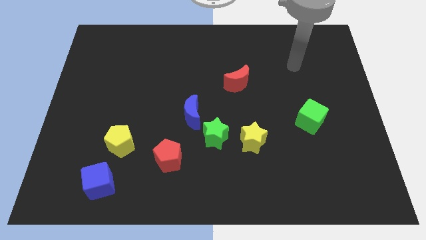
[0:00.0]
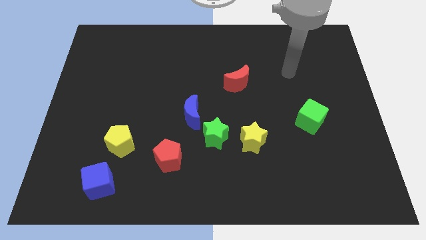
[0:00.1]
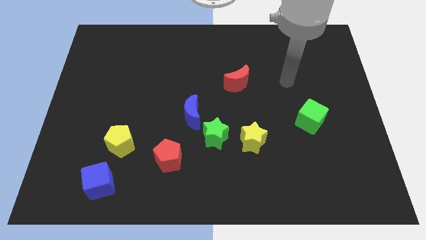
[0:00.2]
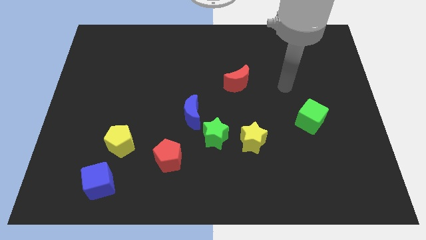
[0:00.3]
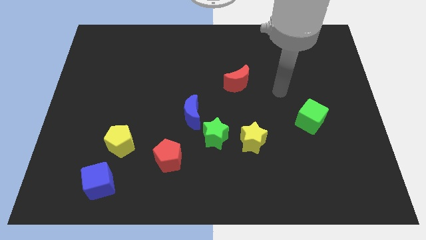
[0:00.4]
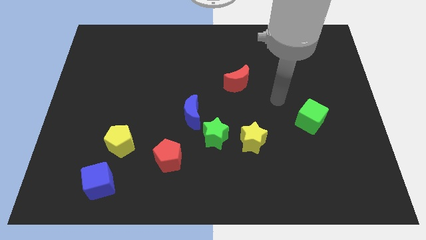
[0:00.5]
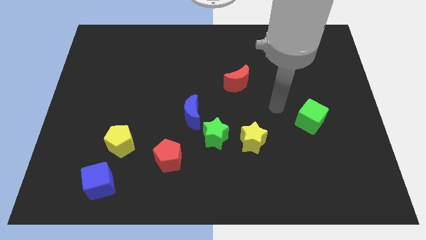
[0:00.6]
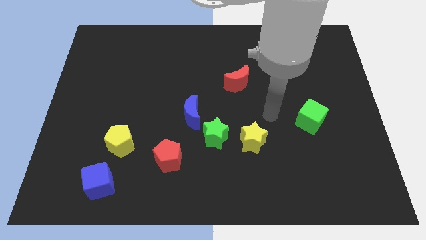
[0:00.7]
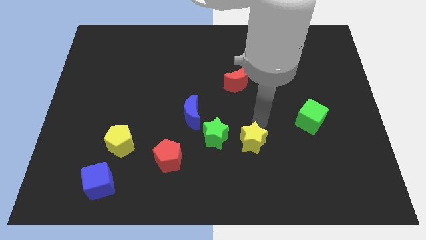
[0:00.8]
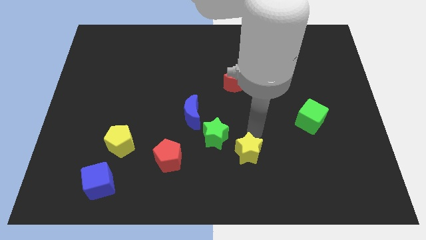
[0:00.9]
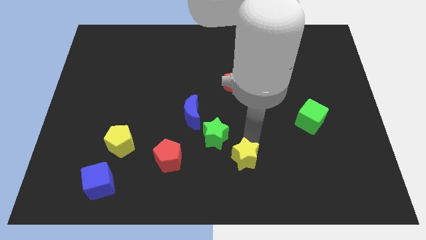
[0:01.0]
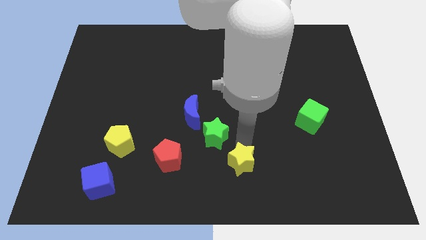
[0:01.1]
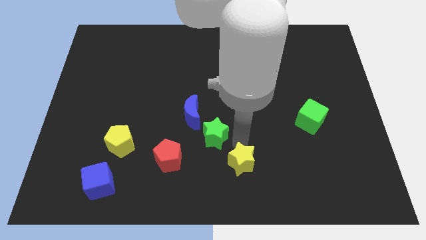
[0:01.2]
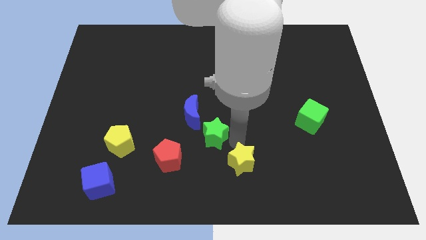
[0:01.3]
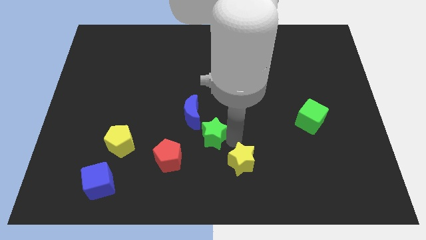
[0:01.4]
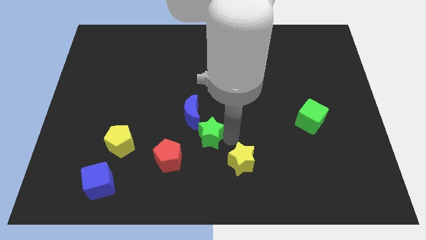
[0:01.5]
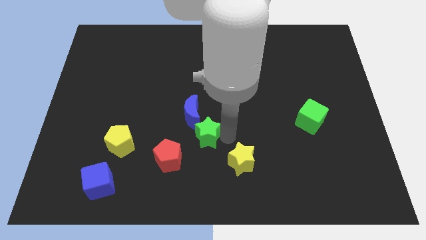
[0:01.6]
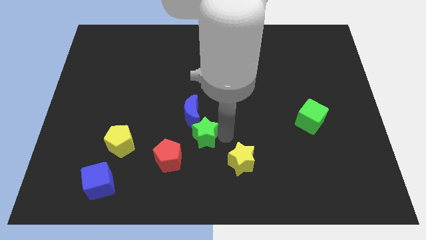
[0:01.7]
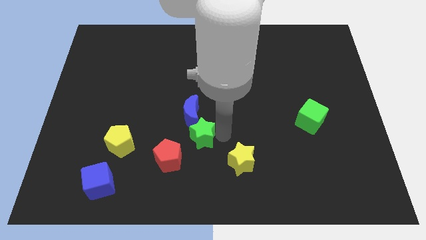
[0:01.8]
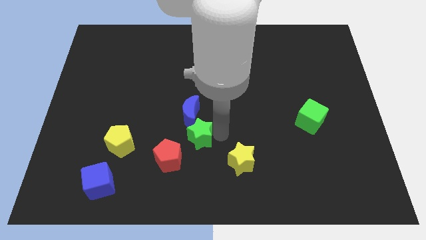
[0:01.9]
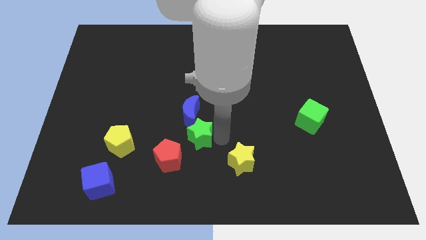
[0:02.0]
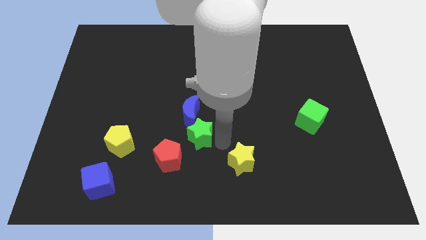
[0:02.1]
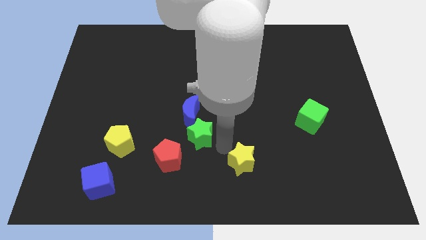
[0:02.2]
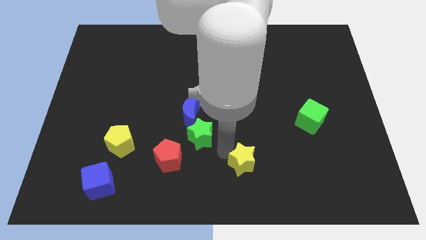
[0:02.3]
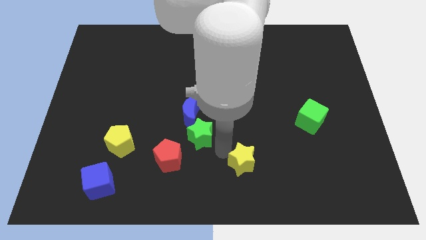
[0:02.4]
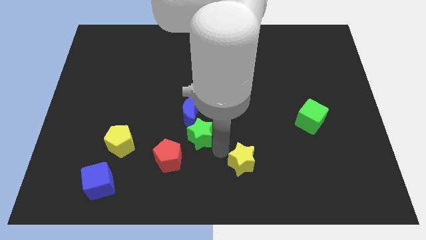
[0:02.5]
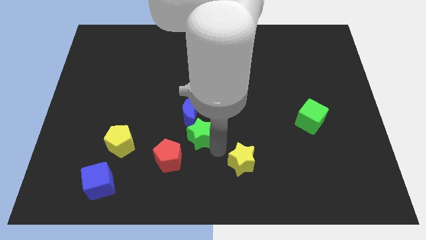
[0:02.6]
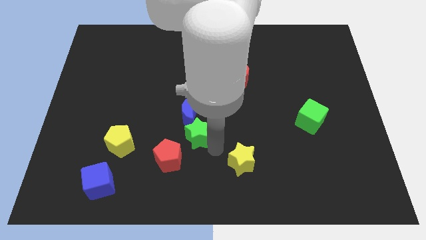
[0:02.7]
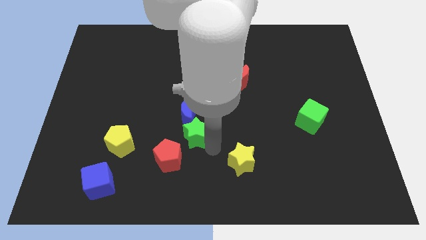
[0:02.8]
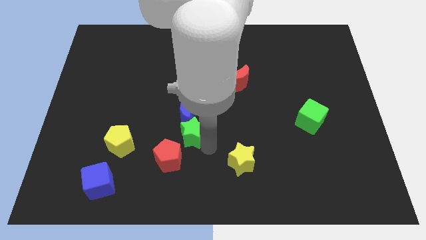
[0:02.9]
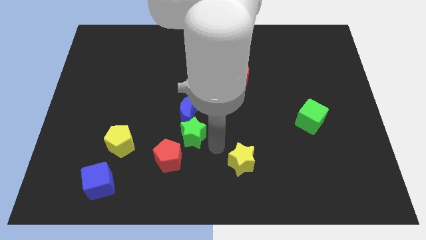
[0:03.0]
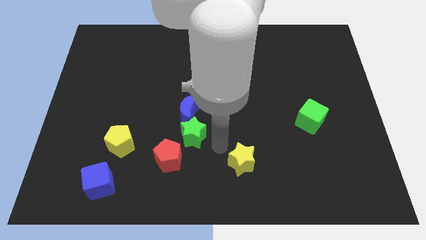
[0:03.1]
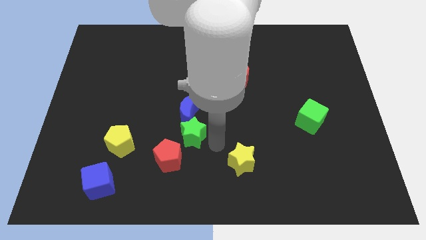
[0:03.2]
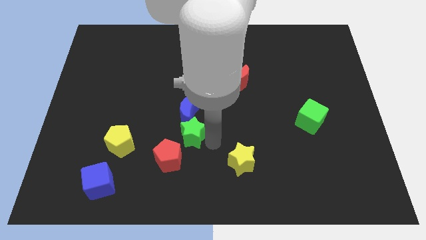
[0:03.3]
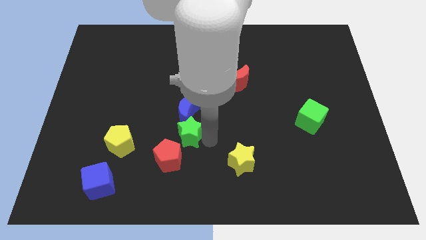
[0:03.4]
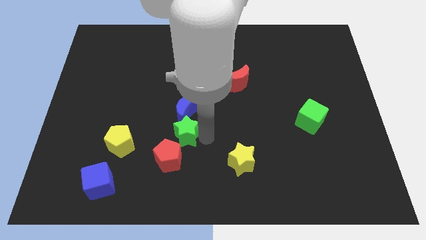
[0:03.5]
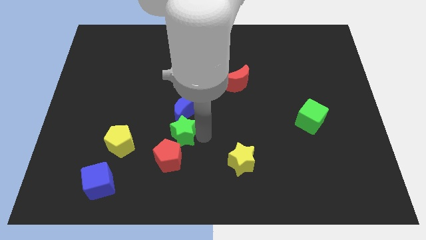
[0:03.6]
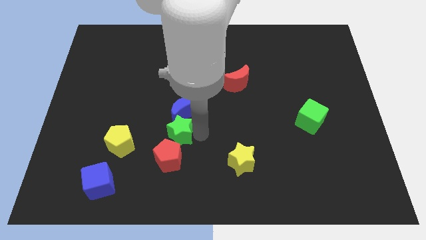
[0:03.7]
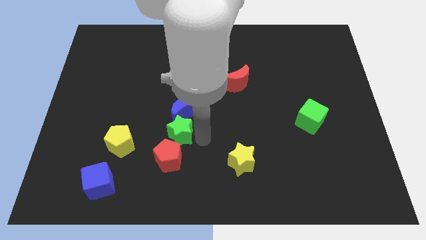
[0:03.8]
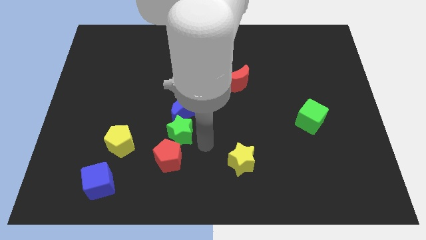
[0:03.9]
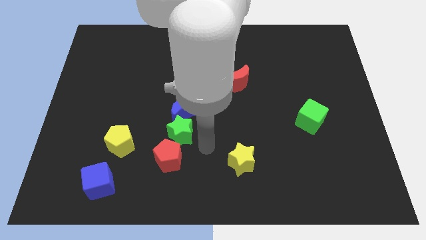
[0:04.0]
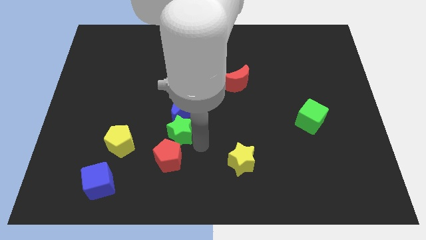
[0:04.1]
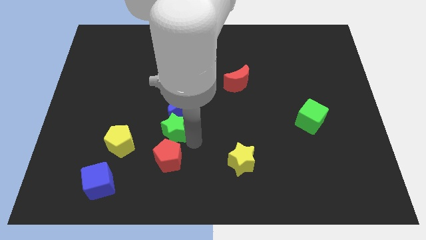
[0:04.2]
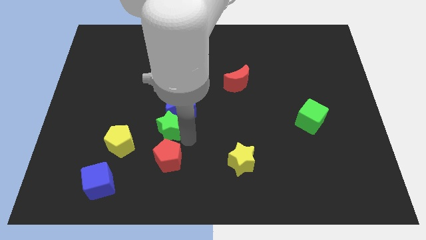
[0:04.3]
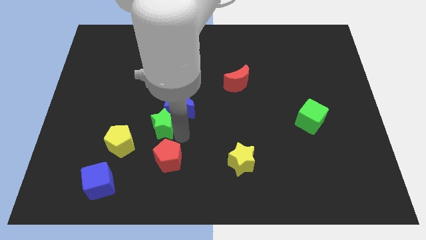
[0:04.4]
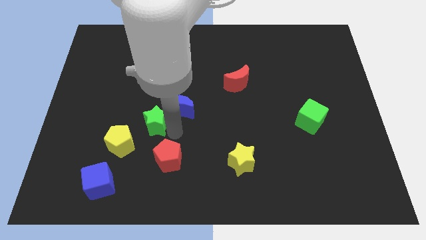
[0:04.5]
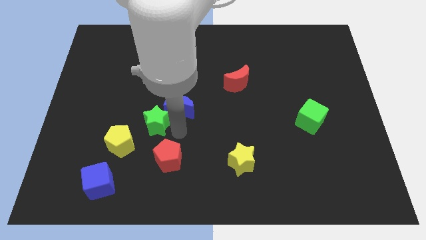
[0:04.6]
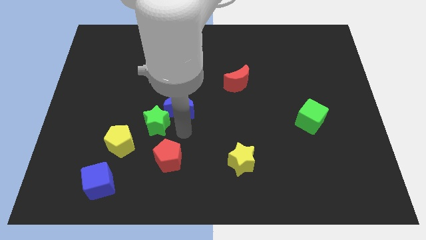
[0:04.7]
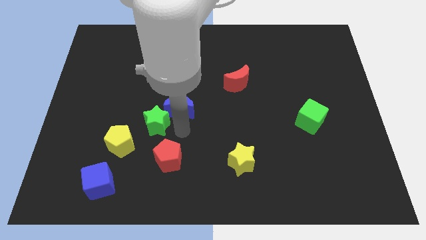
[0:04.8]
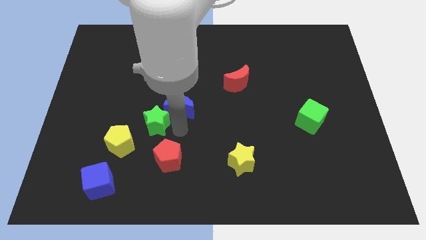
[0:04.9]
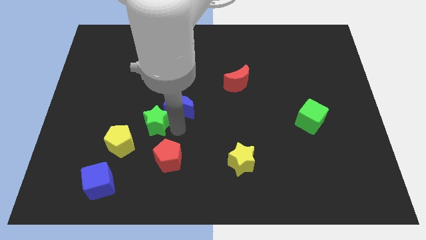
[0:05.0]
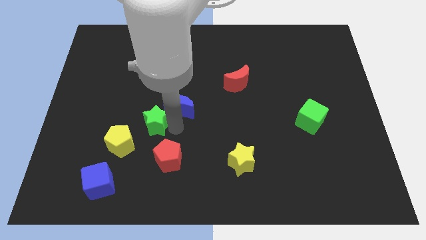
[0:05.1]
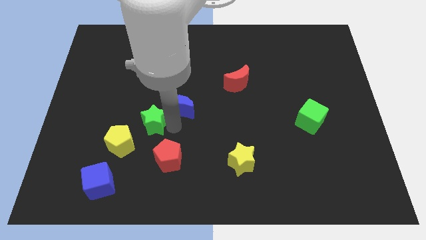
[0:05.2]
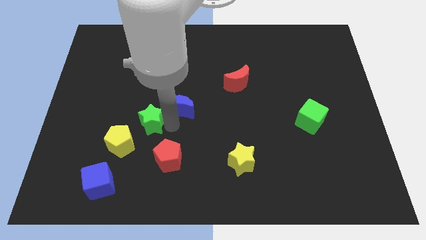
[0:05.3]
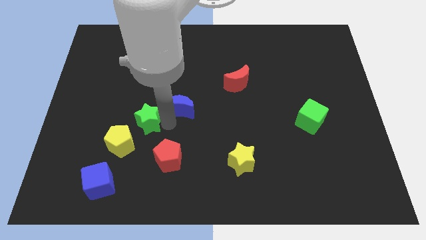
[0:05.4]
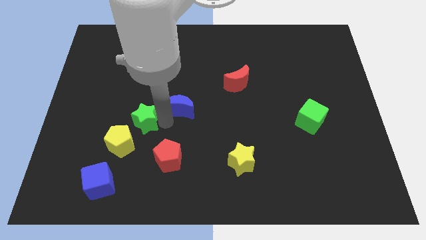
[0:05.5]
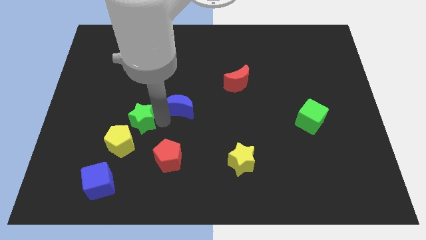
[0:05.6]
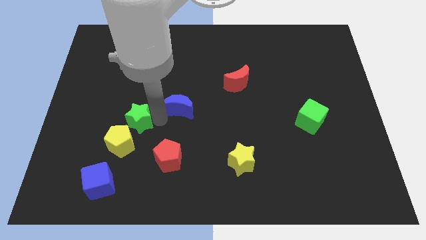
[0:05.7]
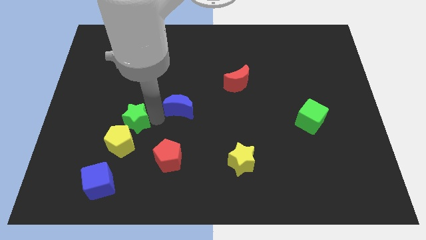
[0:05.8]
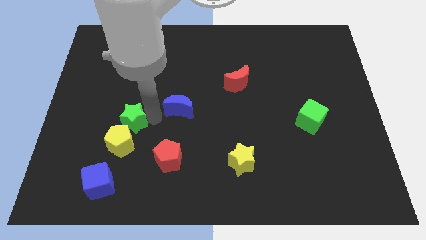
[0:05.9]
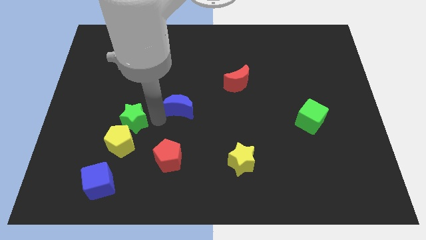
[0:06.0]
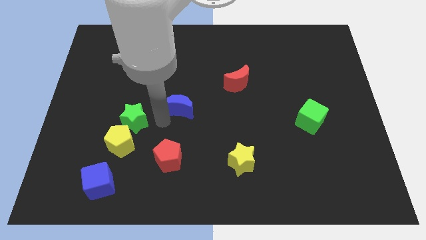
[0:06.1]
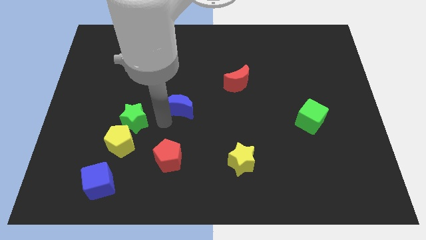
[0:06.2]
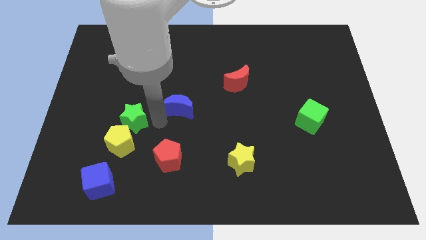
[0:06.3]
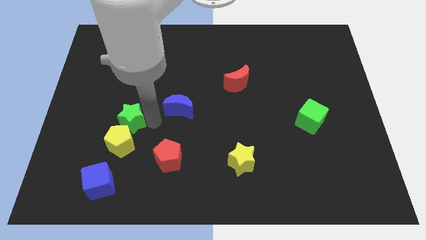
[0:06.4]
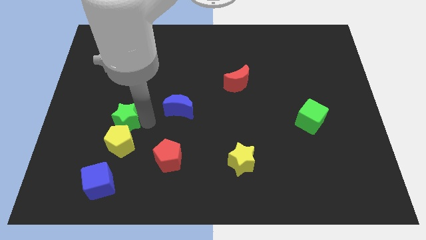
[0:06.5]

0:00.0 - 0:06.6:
put the green star to the top left side of the yellow pentagon

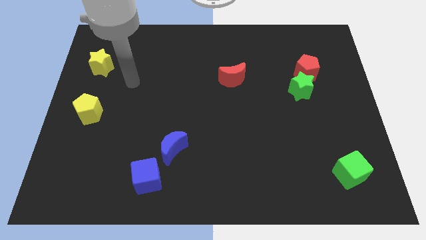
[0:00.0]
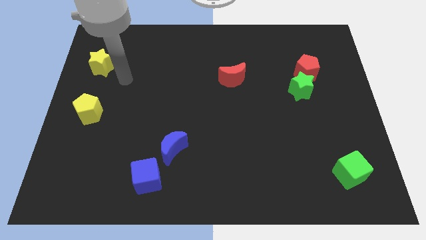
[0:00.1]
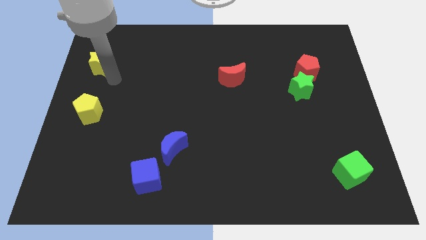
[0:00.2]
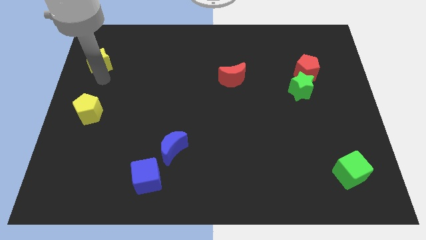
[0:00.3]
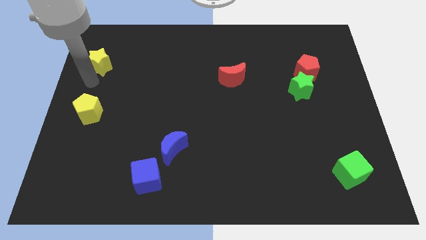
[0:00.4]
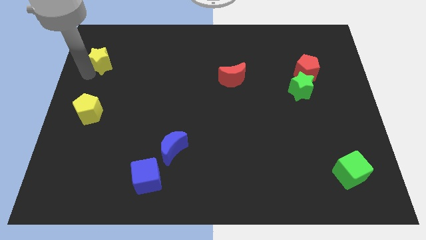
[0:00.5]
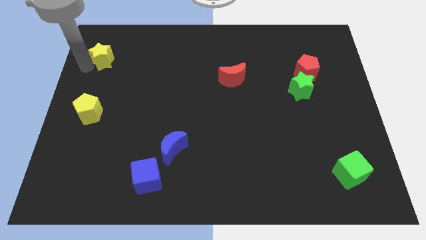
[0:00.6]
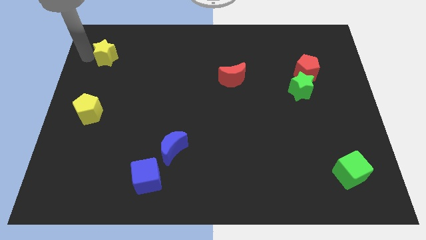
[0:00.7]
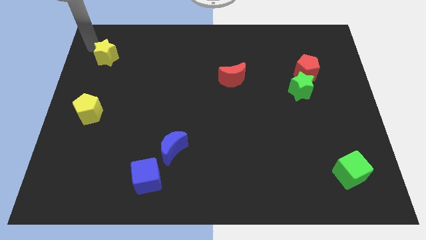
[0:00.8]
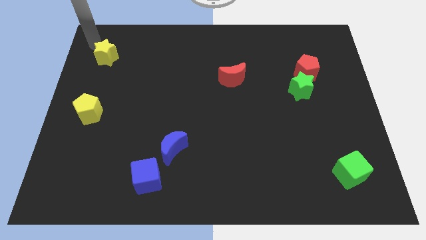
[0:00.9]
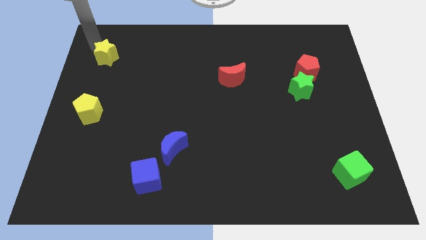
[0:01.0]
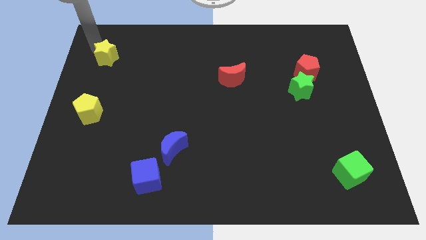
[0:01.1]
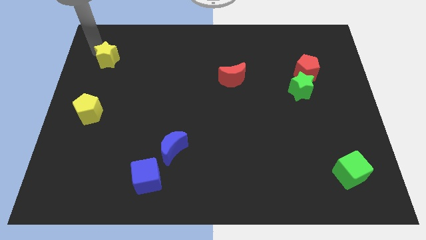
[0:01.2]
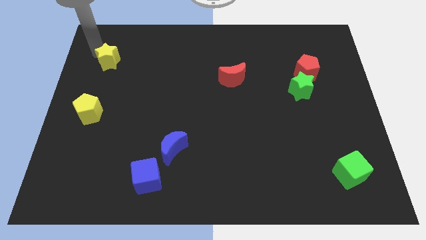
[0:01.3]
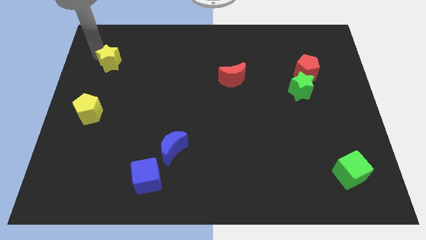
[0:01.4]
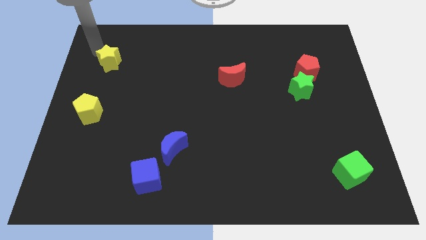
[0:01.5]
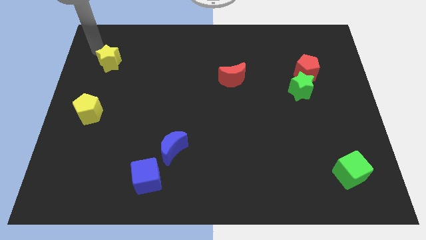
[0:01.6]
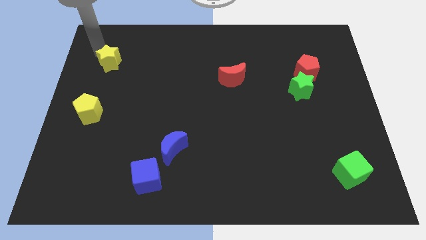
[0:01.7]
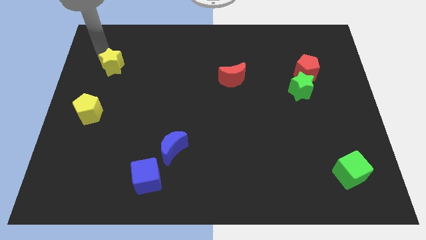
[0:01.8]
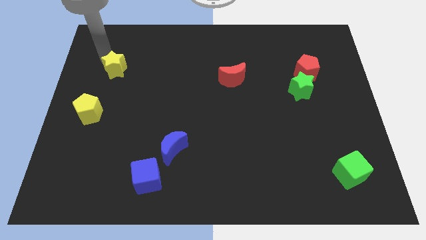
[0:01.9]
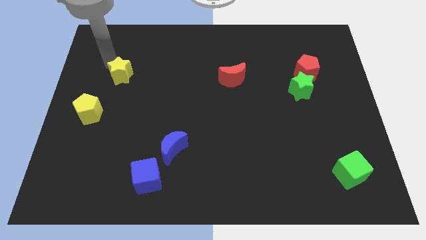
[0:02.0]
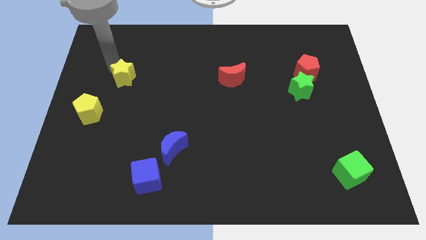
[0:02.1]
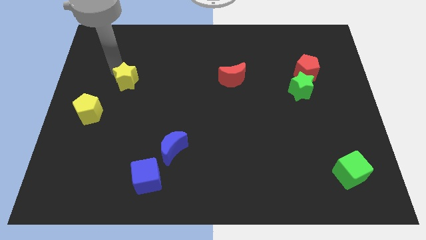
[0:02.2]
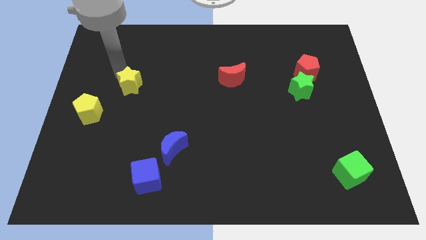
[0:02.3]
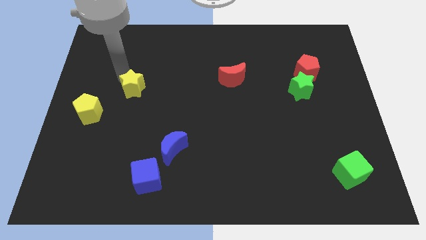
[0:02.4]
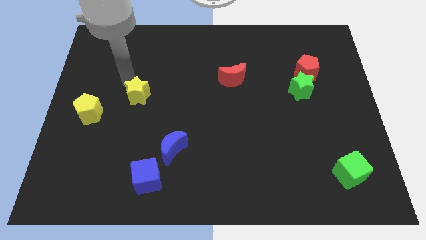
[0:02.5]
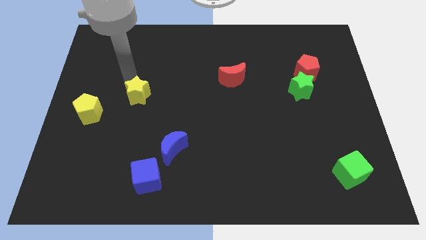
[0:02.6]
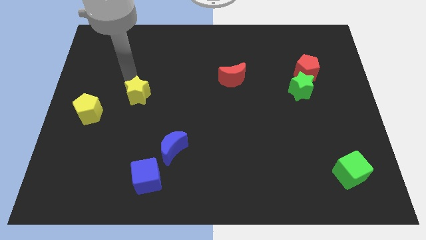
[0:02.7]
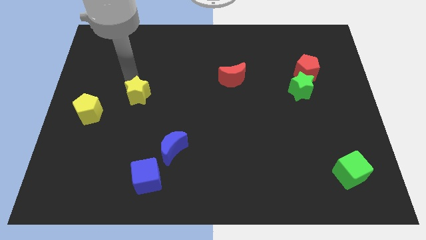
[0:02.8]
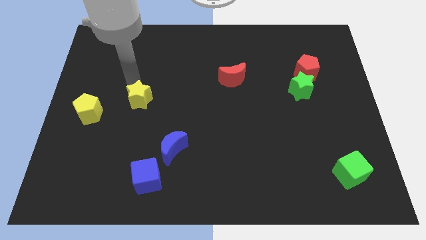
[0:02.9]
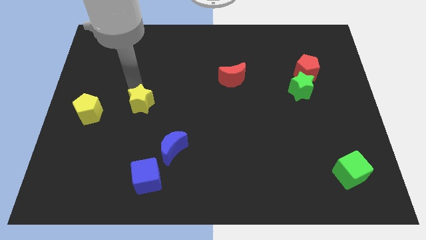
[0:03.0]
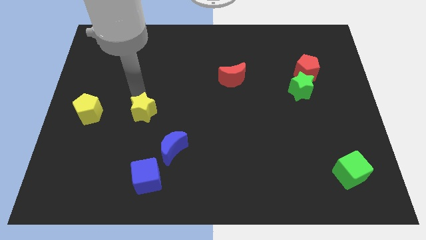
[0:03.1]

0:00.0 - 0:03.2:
put the yellow star to the top left of the blue moon
